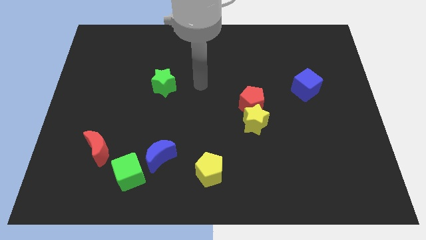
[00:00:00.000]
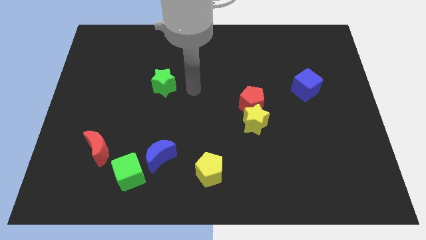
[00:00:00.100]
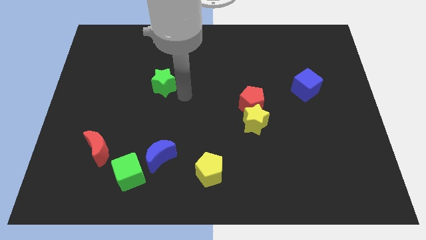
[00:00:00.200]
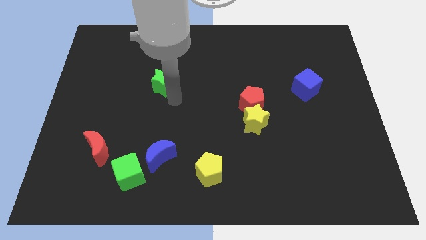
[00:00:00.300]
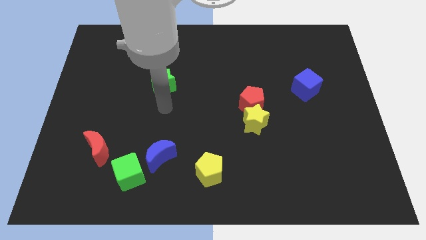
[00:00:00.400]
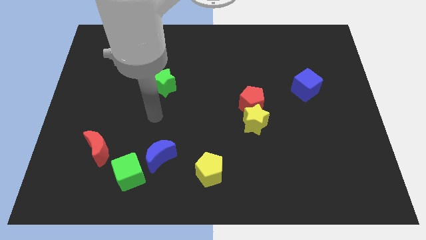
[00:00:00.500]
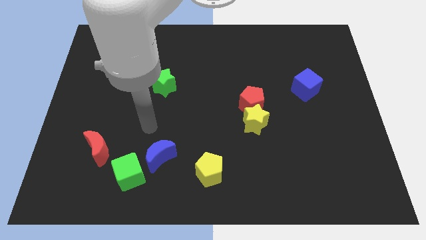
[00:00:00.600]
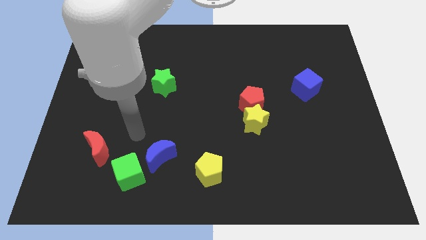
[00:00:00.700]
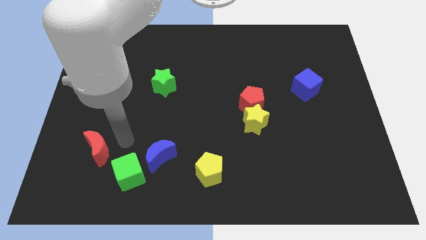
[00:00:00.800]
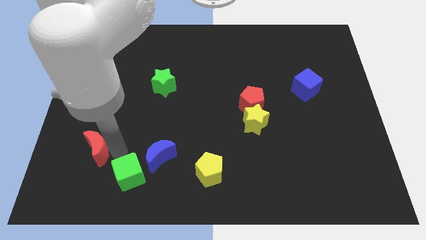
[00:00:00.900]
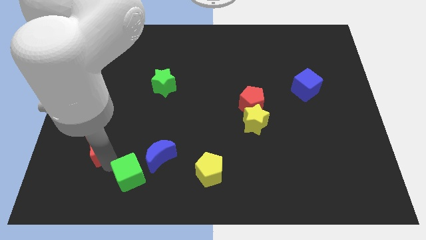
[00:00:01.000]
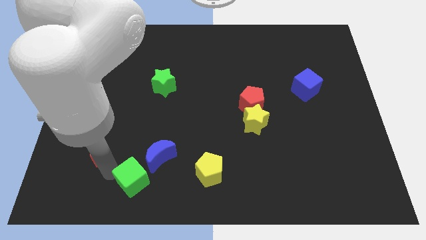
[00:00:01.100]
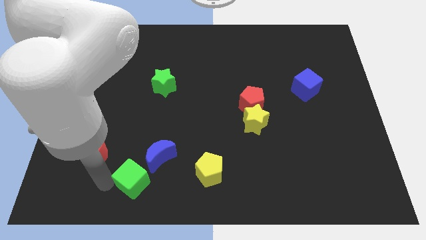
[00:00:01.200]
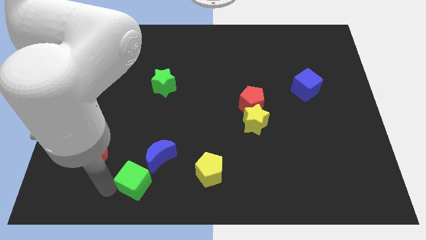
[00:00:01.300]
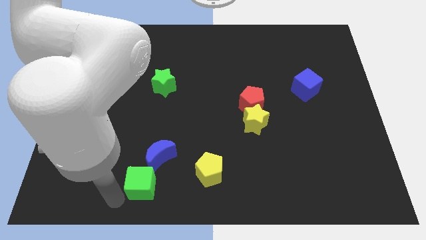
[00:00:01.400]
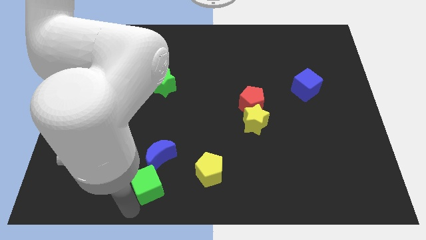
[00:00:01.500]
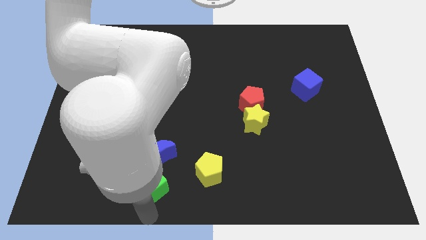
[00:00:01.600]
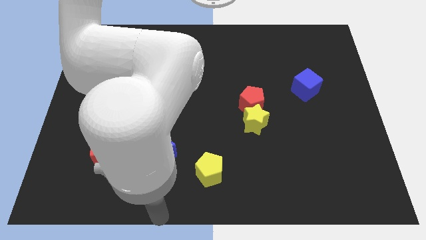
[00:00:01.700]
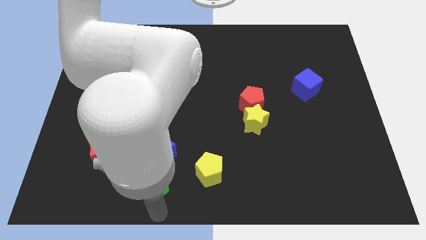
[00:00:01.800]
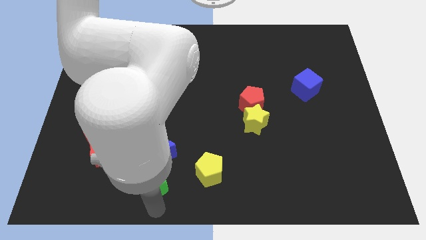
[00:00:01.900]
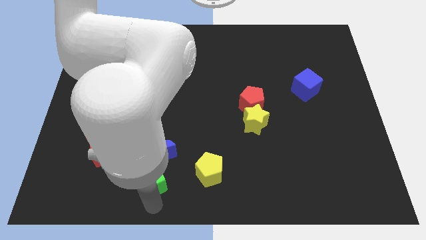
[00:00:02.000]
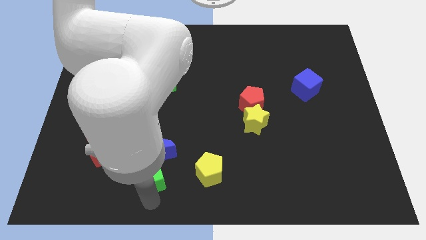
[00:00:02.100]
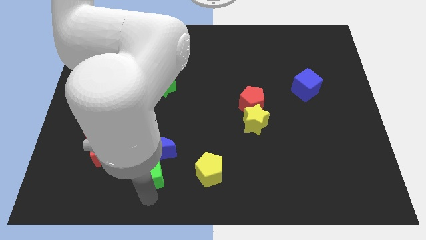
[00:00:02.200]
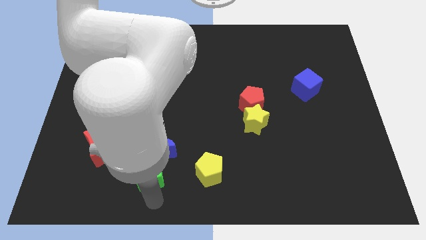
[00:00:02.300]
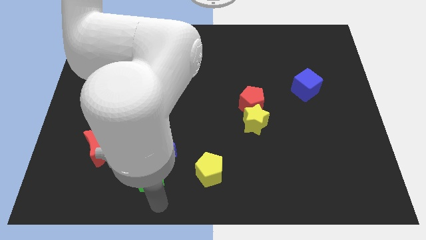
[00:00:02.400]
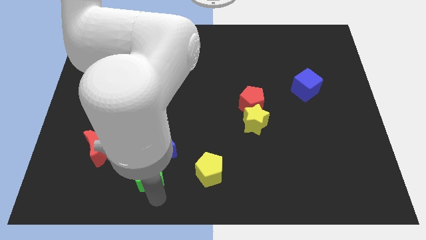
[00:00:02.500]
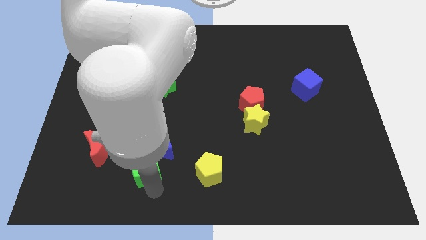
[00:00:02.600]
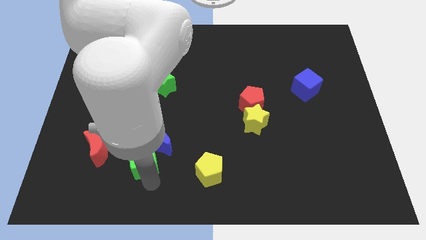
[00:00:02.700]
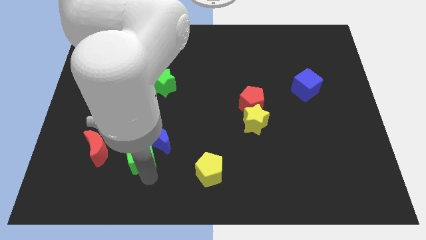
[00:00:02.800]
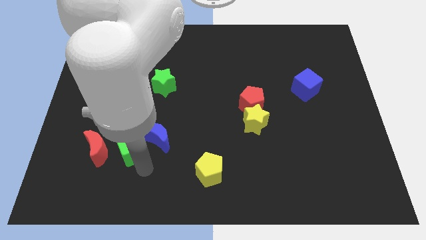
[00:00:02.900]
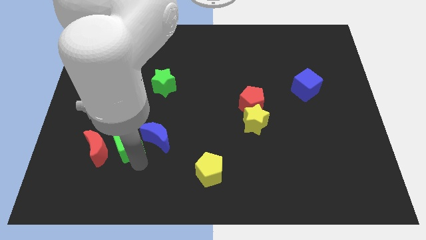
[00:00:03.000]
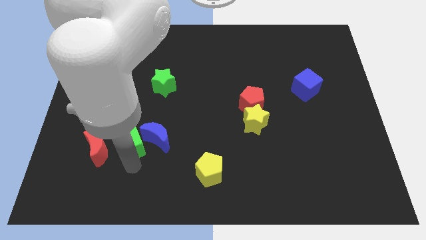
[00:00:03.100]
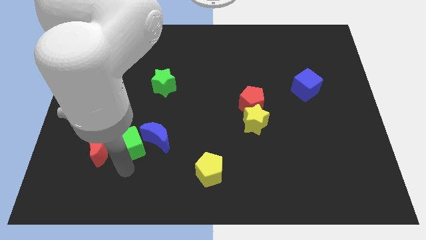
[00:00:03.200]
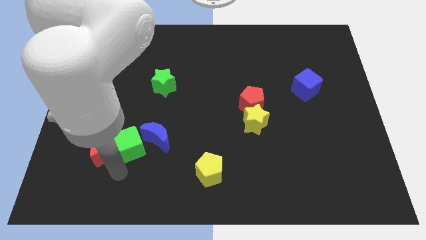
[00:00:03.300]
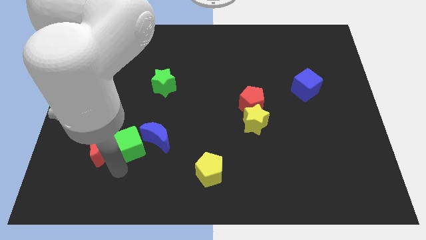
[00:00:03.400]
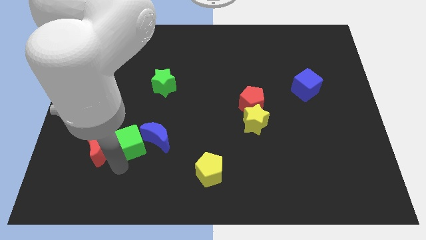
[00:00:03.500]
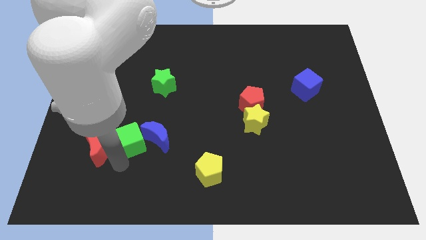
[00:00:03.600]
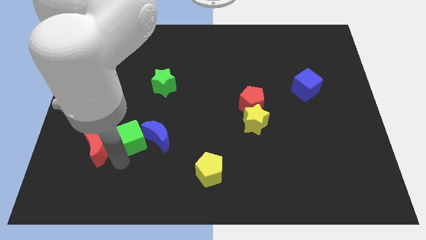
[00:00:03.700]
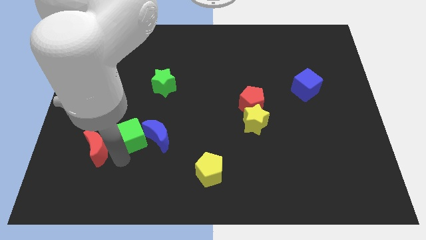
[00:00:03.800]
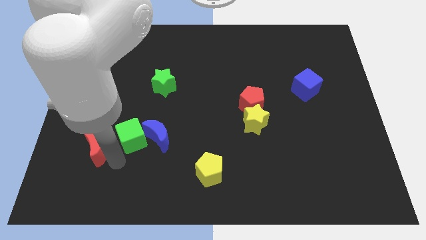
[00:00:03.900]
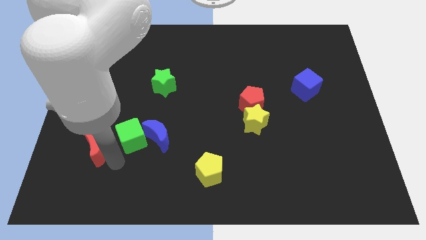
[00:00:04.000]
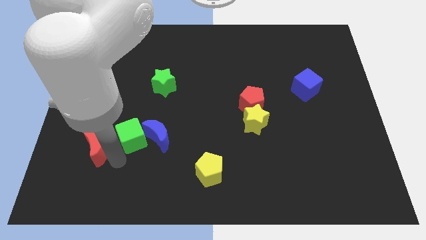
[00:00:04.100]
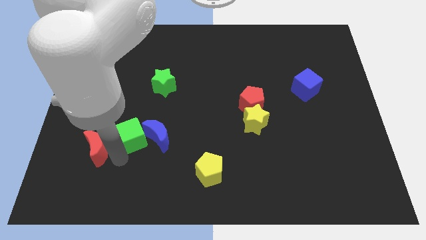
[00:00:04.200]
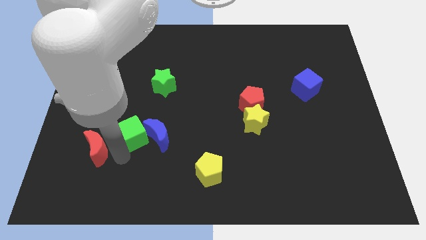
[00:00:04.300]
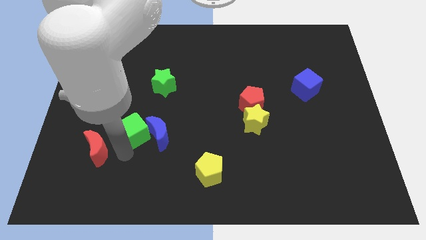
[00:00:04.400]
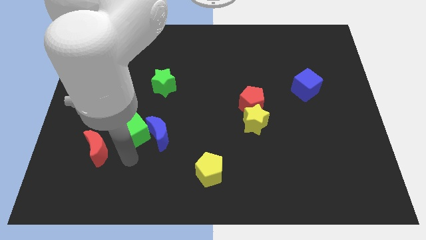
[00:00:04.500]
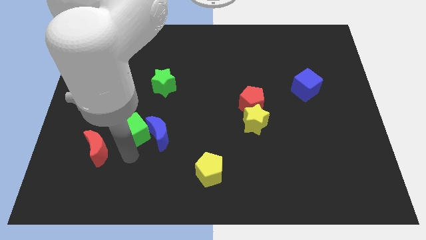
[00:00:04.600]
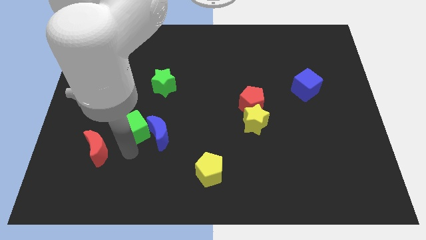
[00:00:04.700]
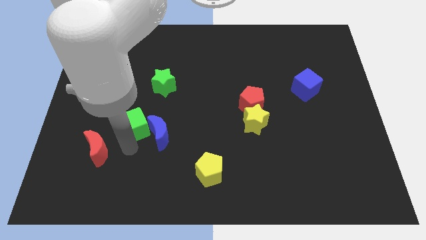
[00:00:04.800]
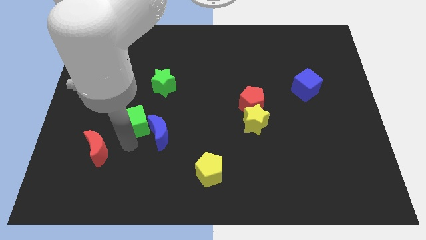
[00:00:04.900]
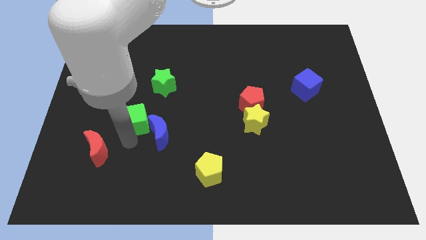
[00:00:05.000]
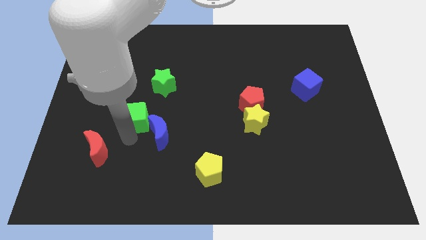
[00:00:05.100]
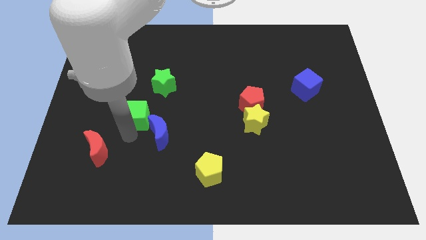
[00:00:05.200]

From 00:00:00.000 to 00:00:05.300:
move the green cube diagonally down and to the left of the green star

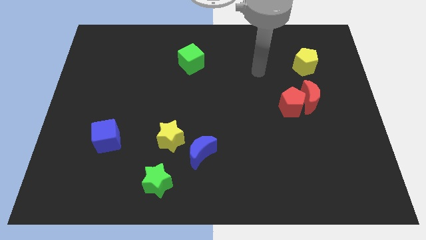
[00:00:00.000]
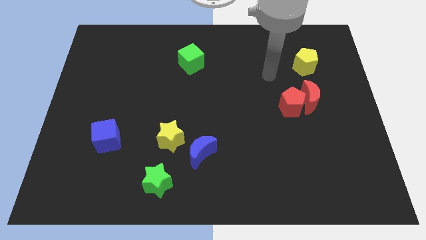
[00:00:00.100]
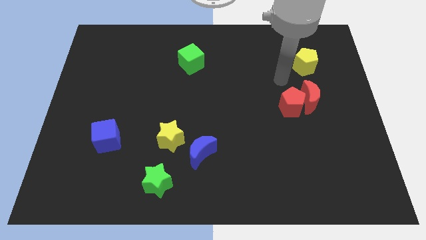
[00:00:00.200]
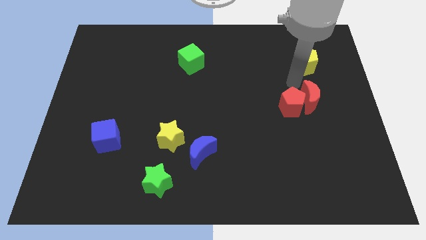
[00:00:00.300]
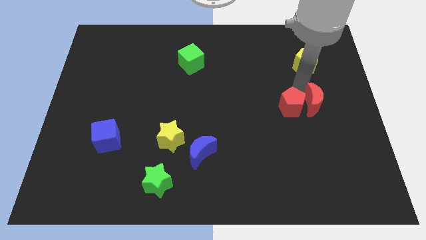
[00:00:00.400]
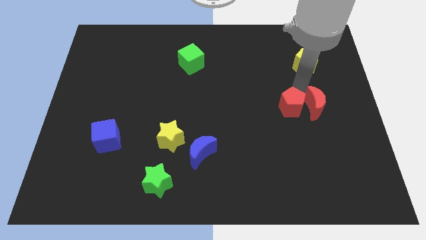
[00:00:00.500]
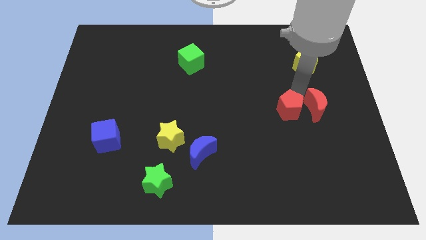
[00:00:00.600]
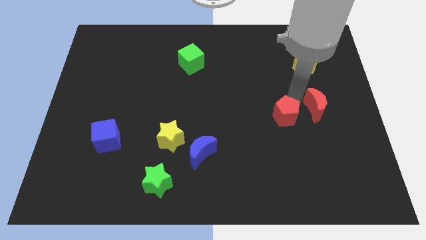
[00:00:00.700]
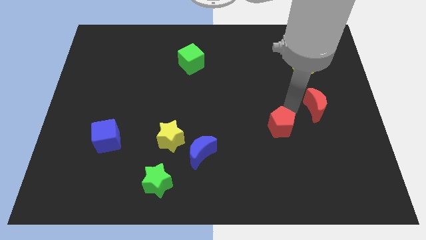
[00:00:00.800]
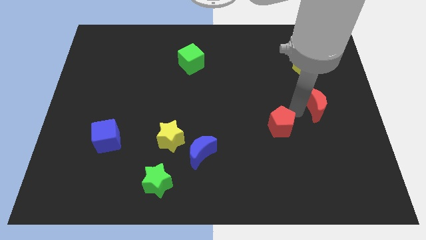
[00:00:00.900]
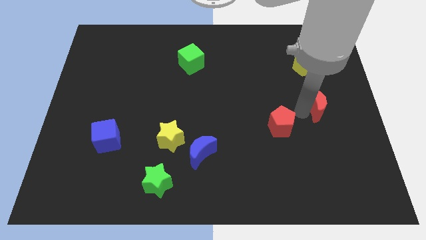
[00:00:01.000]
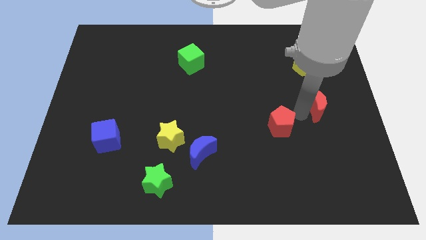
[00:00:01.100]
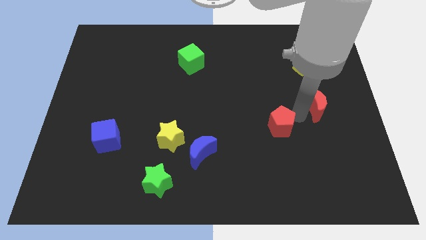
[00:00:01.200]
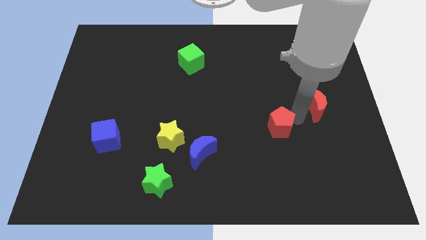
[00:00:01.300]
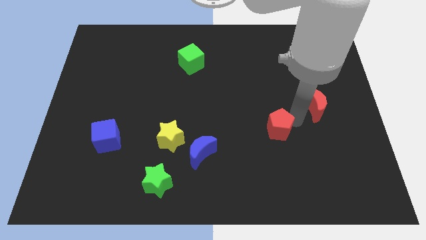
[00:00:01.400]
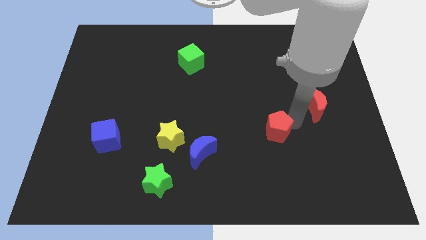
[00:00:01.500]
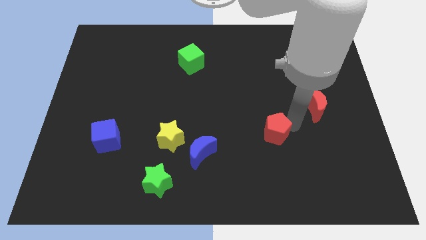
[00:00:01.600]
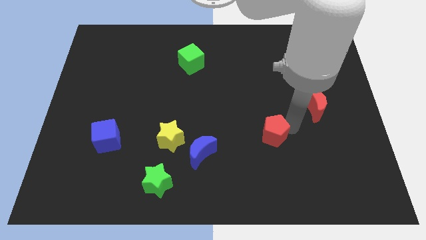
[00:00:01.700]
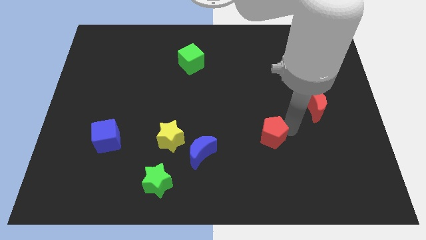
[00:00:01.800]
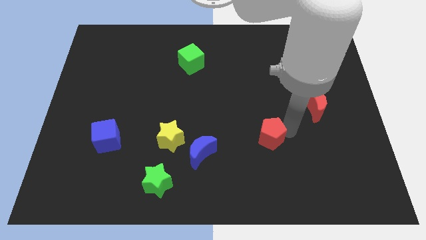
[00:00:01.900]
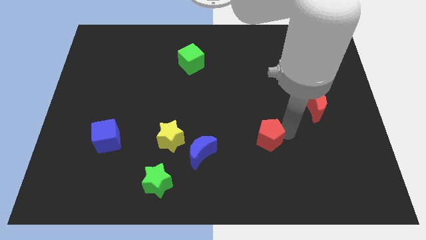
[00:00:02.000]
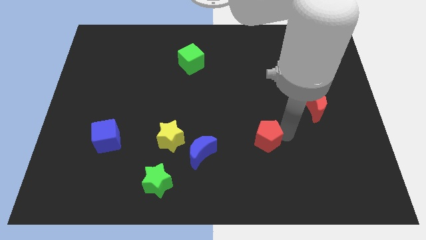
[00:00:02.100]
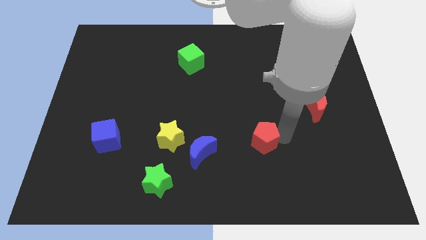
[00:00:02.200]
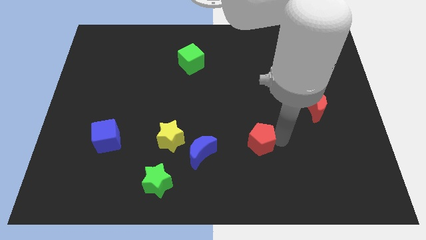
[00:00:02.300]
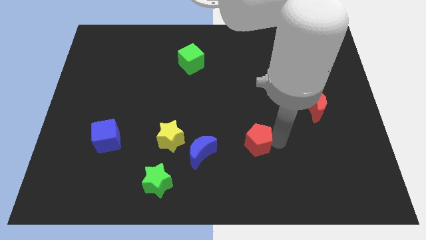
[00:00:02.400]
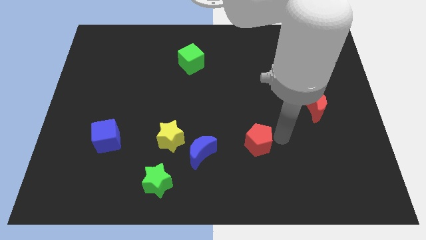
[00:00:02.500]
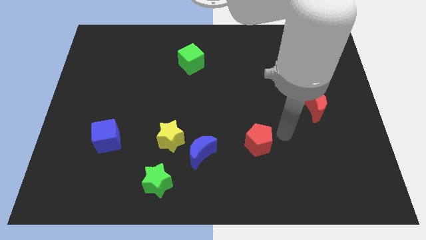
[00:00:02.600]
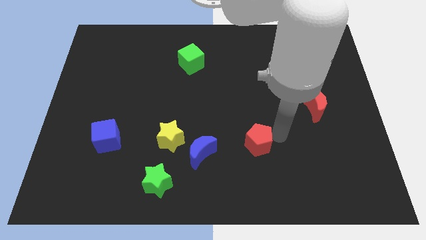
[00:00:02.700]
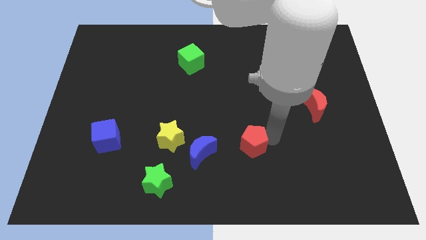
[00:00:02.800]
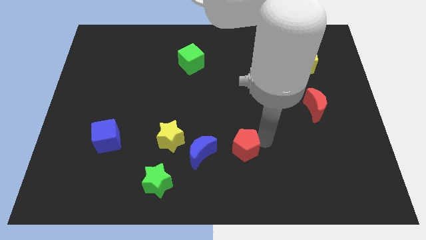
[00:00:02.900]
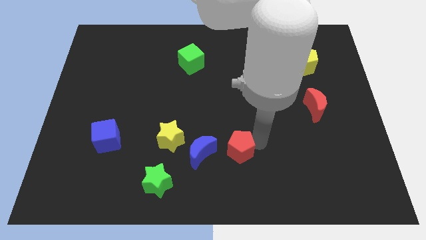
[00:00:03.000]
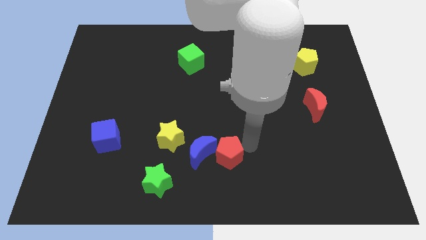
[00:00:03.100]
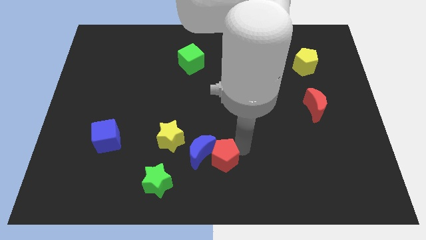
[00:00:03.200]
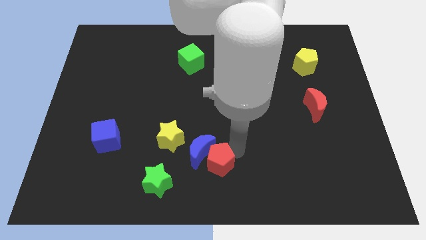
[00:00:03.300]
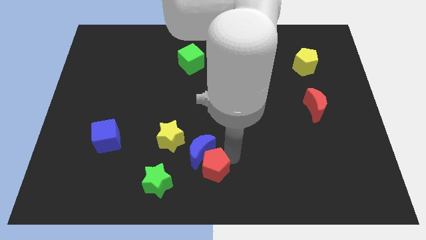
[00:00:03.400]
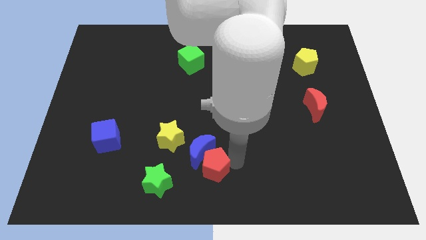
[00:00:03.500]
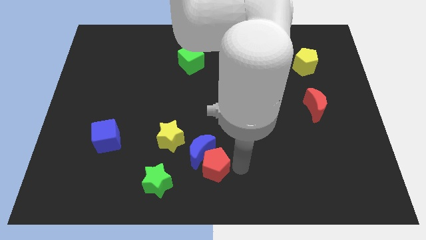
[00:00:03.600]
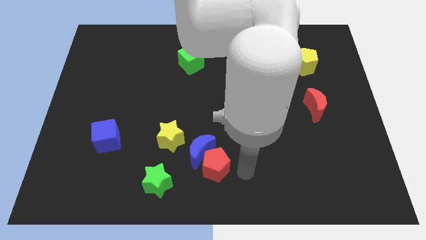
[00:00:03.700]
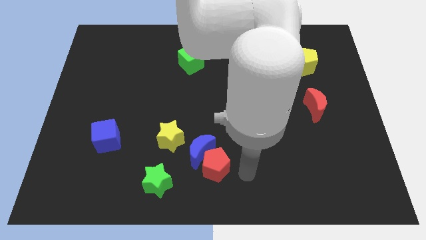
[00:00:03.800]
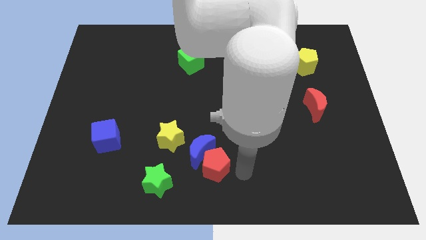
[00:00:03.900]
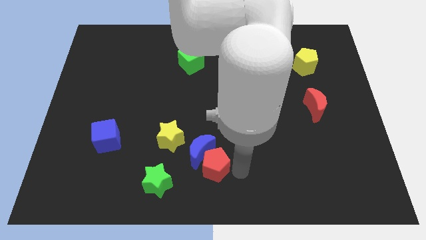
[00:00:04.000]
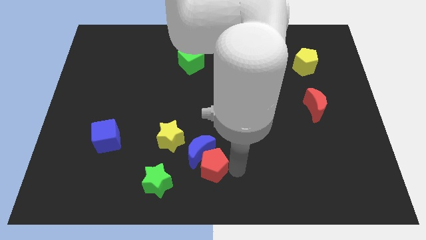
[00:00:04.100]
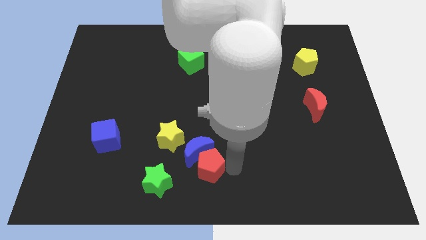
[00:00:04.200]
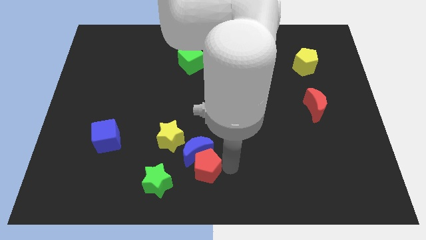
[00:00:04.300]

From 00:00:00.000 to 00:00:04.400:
put the red pentagon to the top right side of the green star
